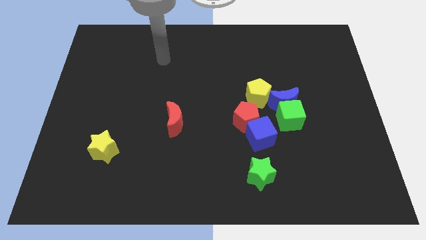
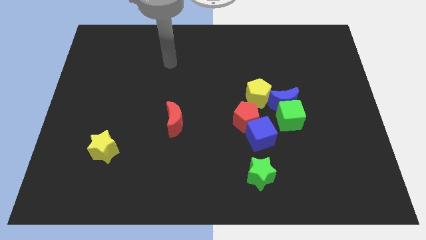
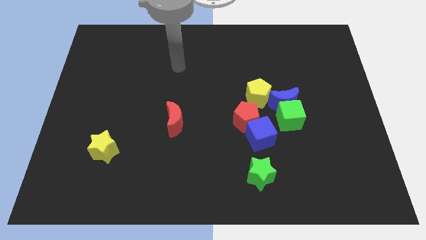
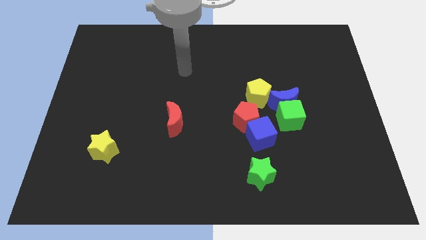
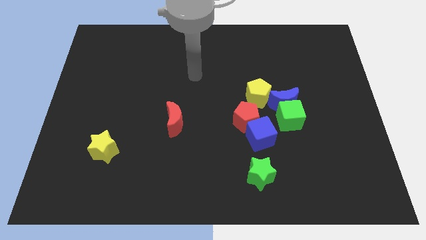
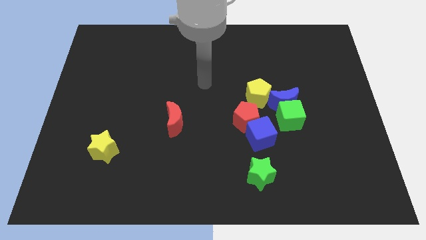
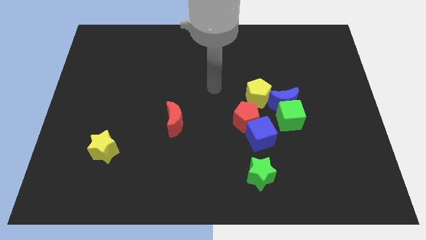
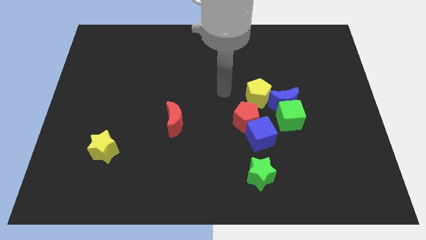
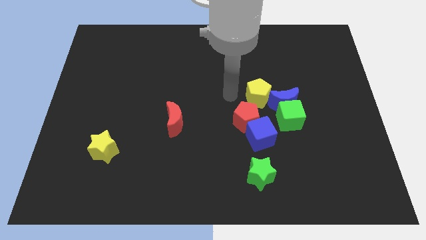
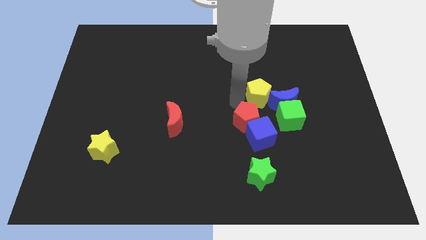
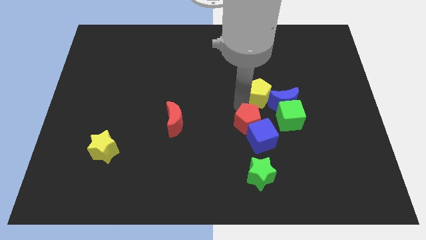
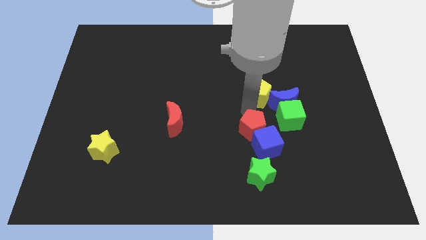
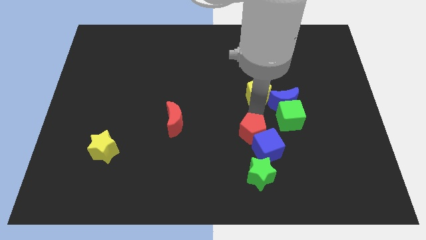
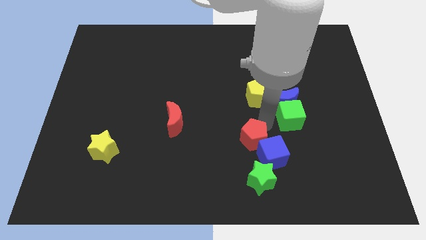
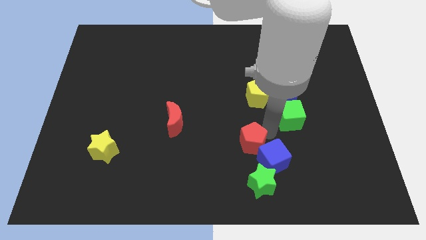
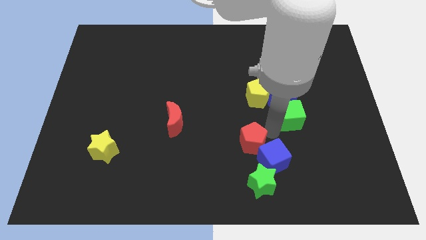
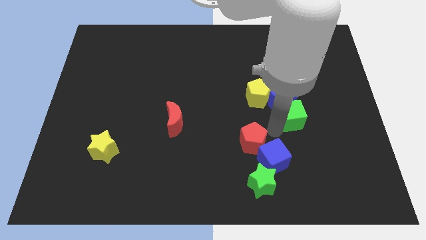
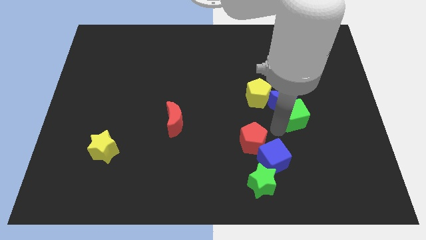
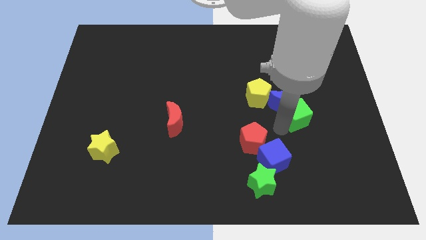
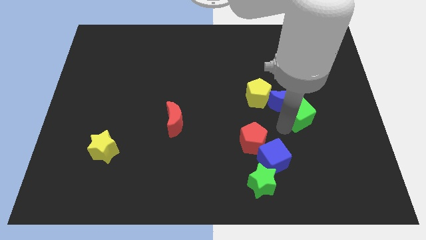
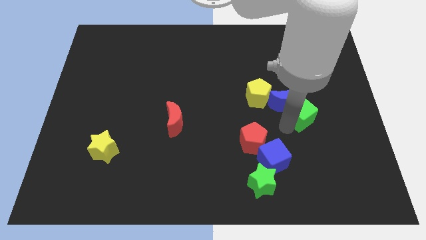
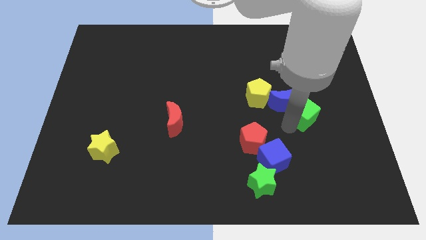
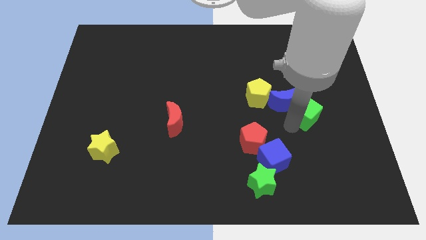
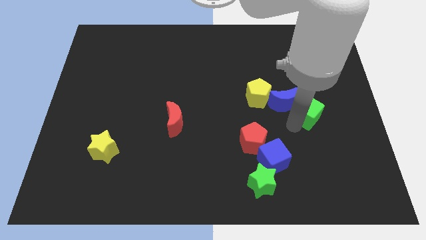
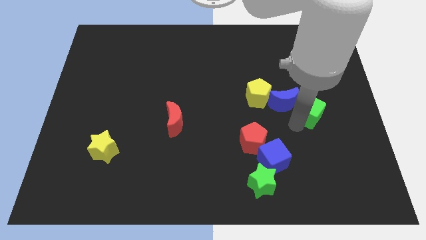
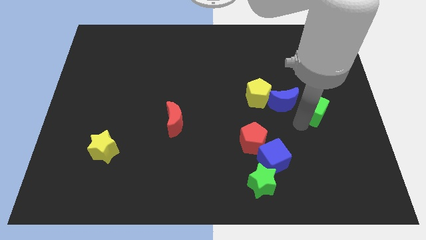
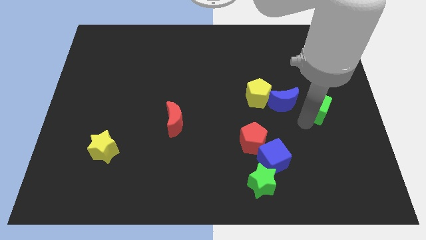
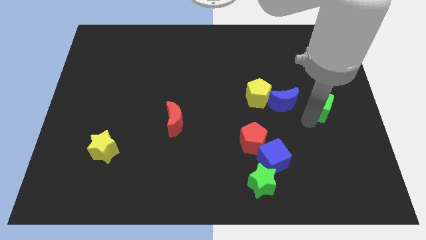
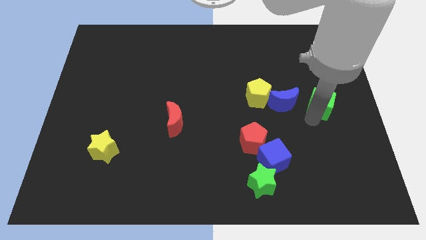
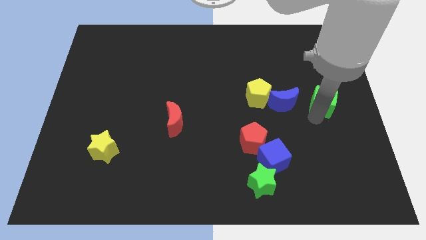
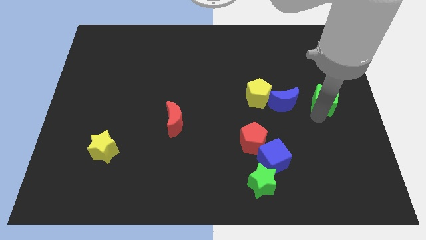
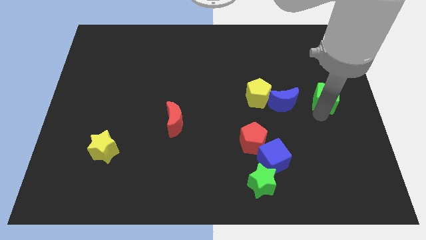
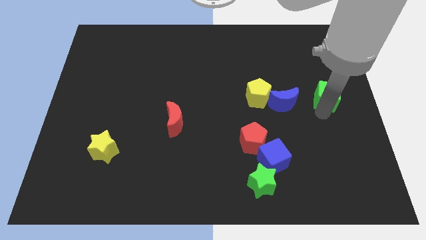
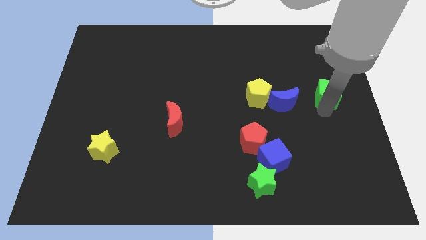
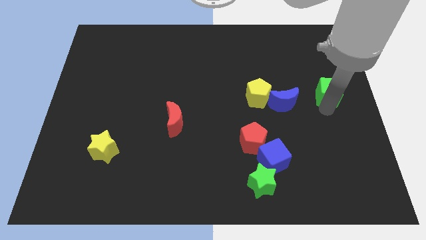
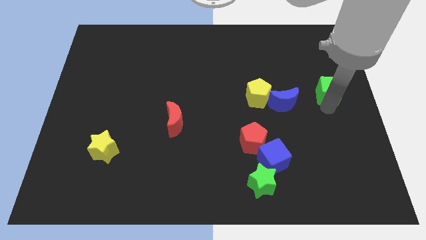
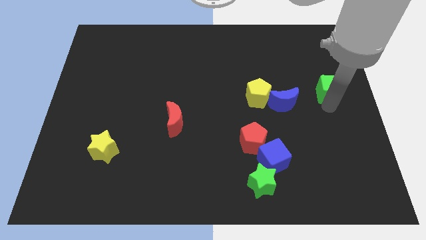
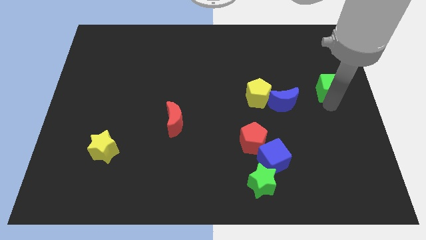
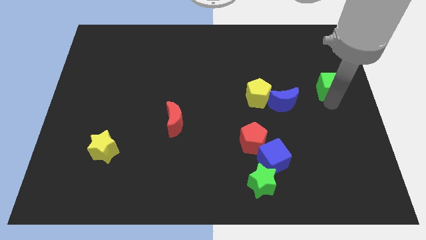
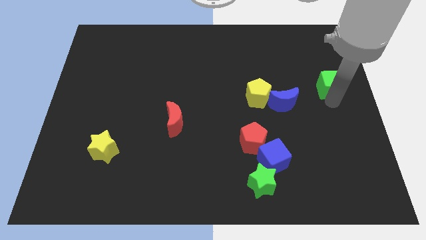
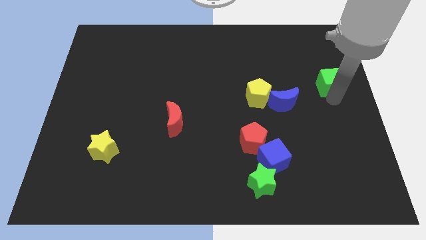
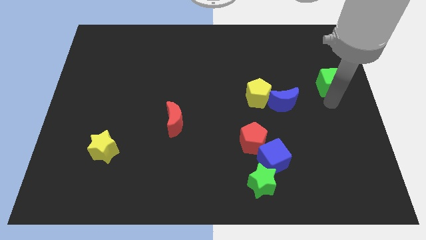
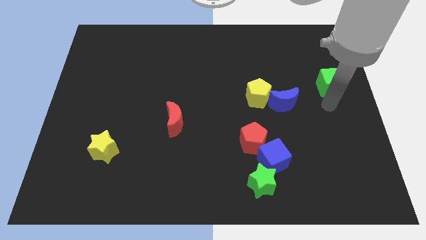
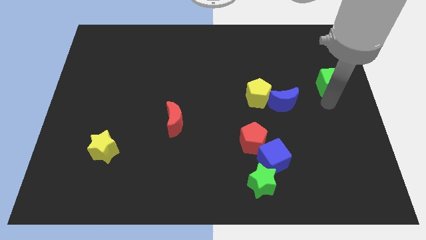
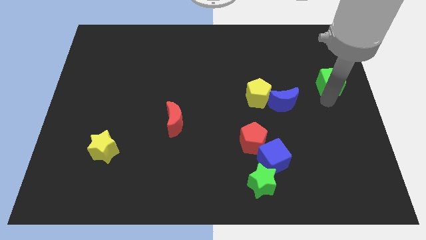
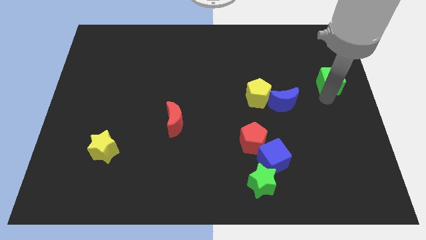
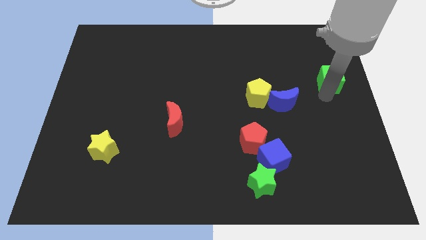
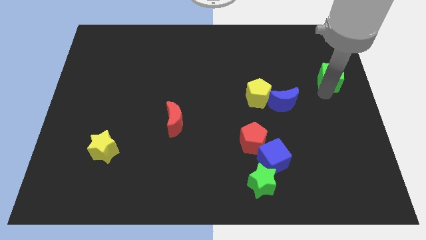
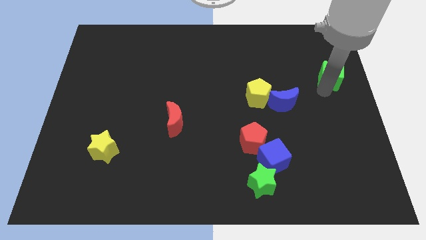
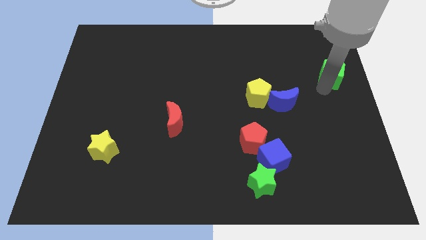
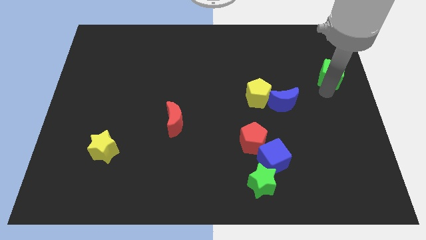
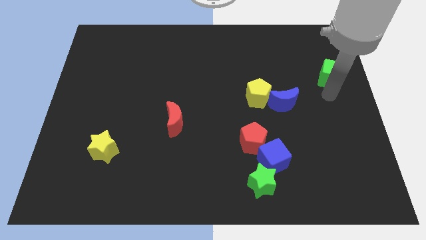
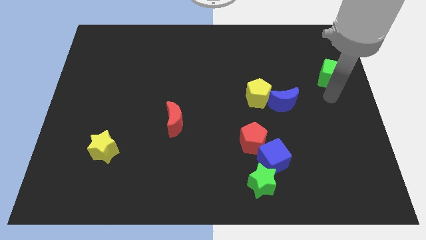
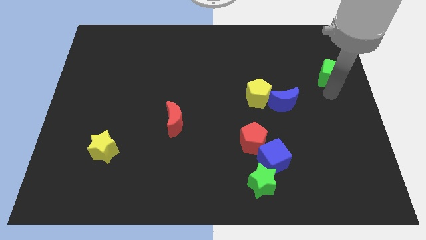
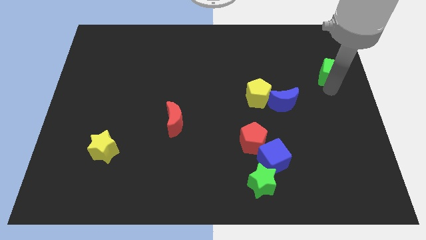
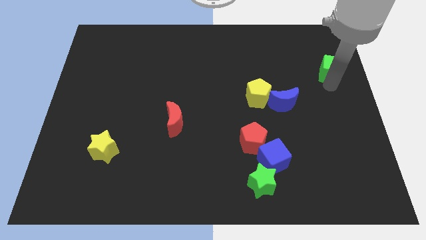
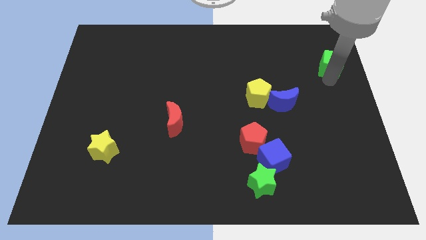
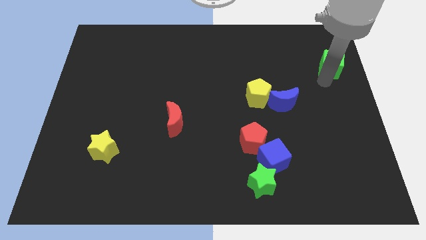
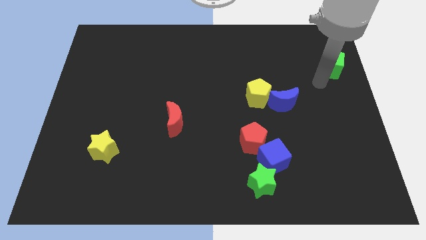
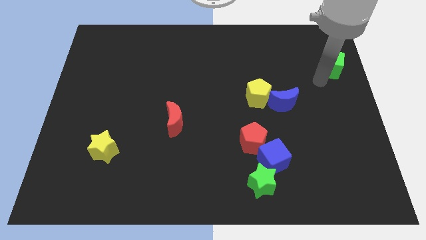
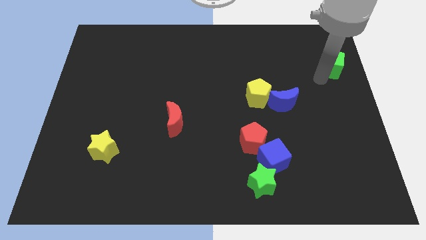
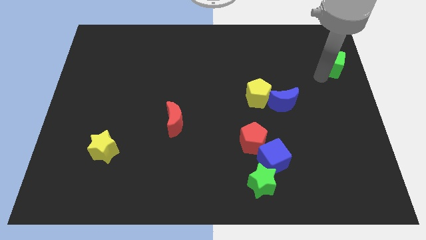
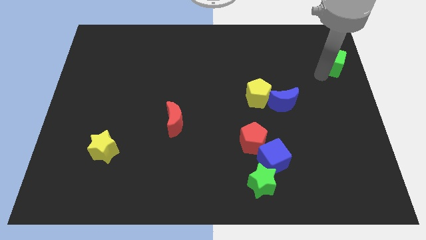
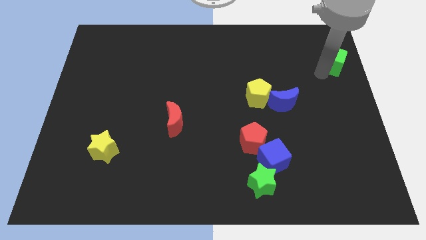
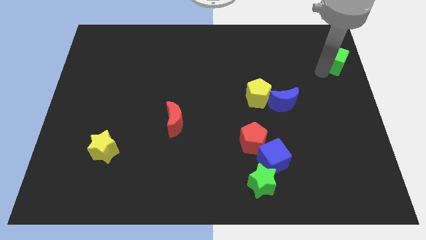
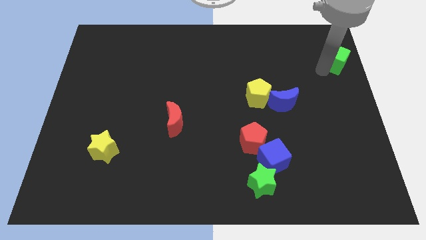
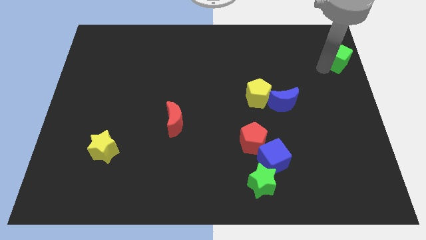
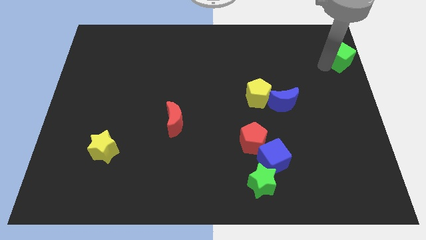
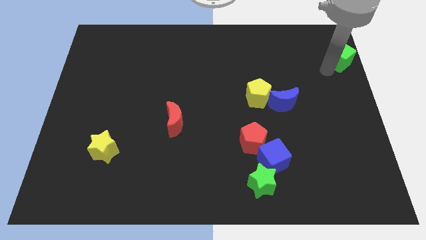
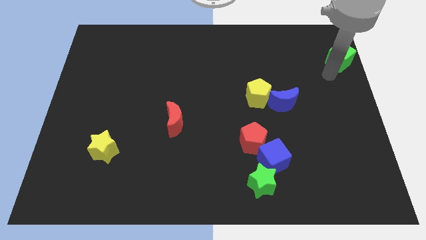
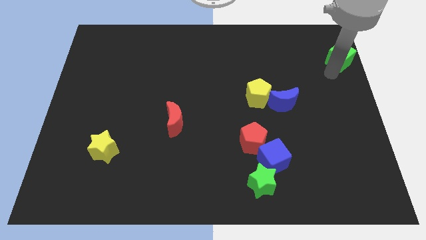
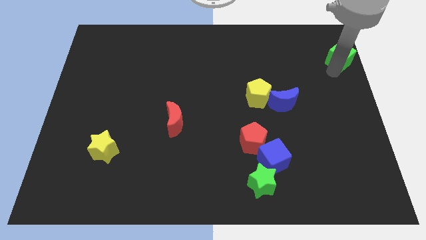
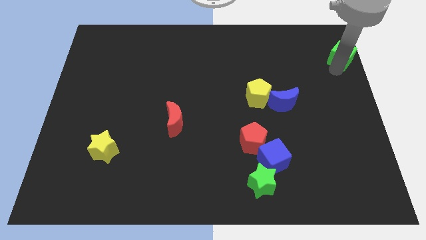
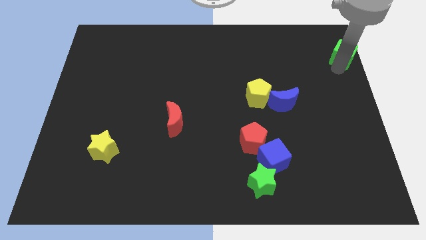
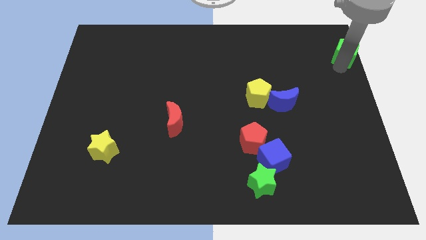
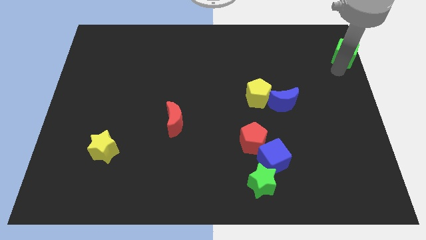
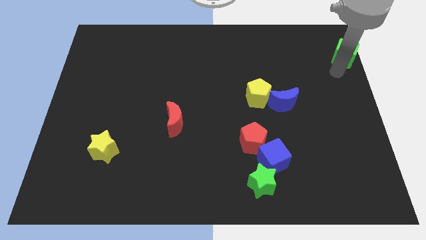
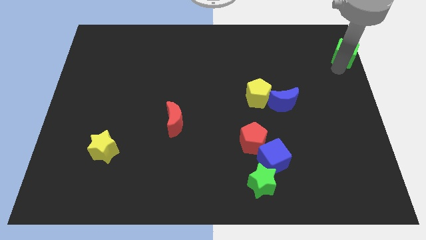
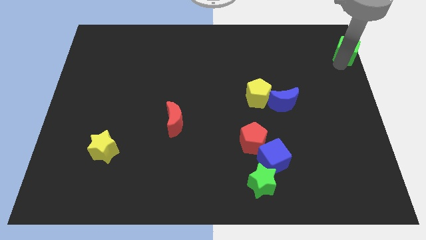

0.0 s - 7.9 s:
slide the green cube to the top right of the board
